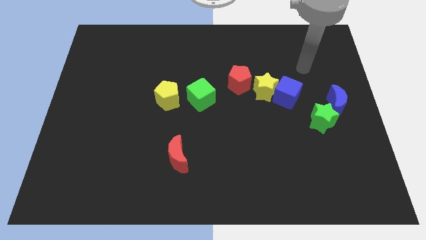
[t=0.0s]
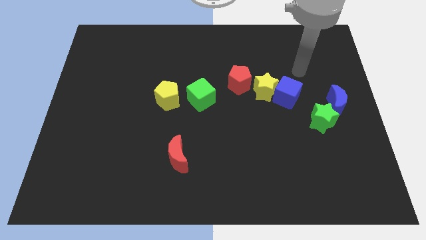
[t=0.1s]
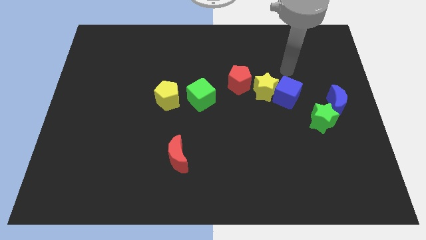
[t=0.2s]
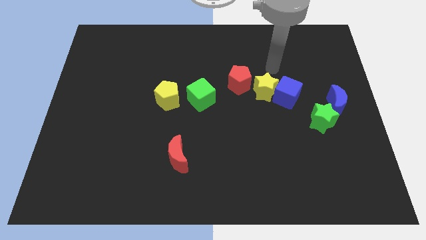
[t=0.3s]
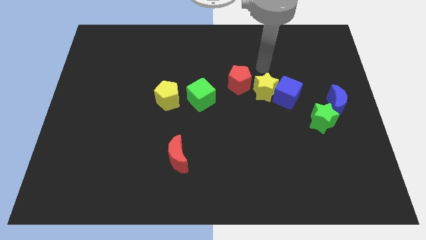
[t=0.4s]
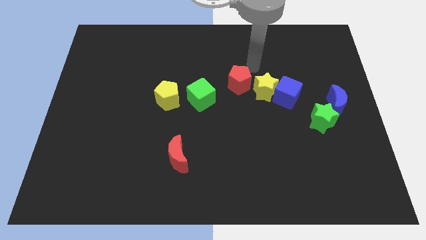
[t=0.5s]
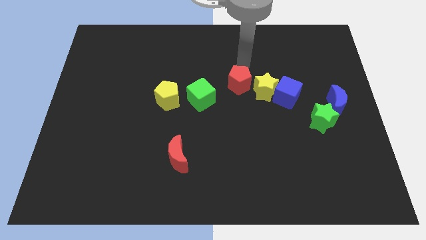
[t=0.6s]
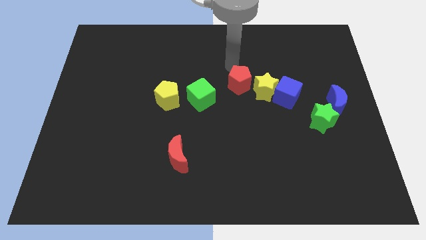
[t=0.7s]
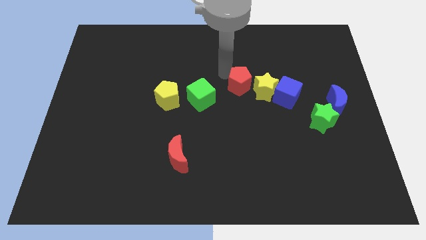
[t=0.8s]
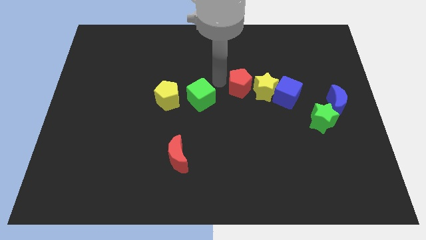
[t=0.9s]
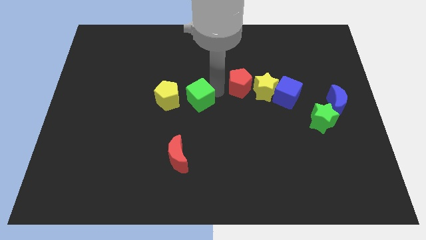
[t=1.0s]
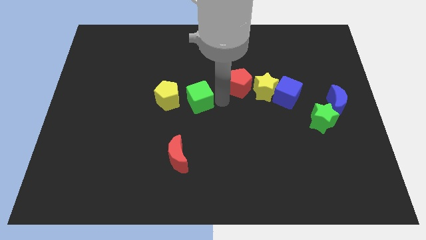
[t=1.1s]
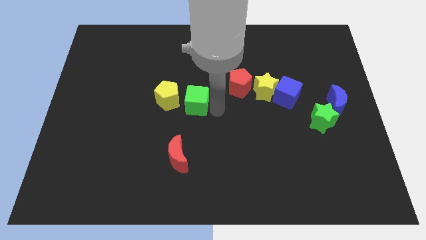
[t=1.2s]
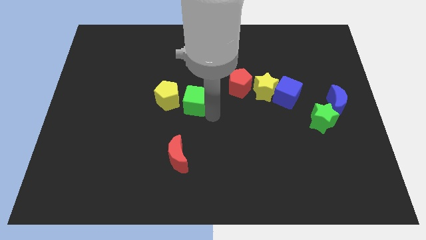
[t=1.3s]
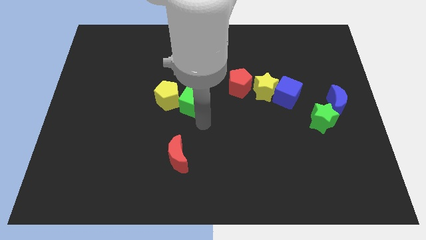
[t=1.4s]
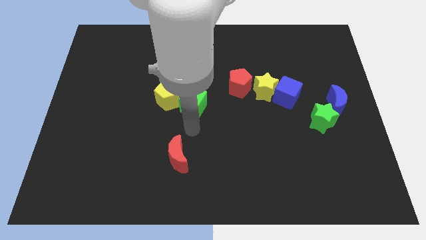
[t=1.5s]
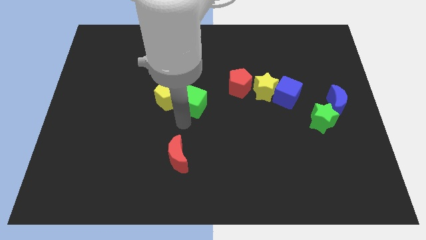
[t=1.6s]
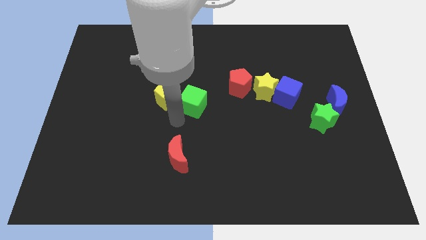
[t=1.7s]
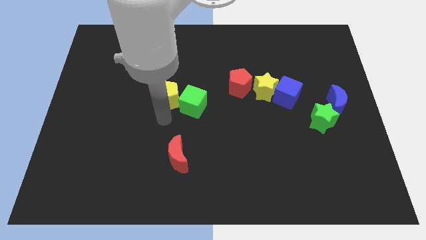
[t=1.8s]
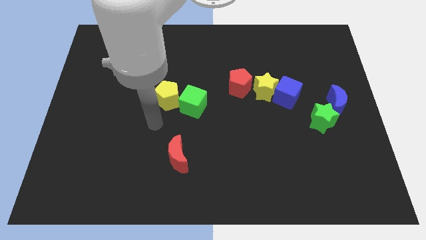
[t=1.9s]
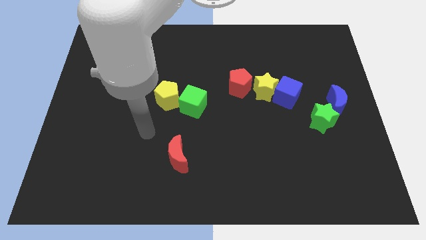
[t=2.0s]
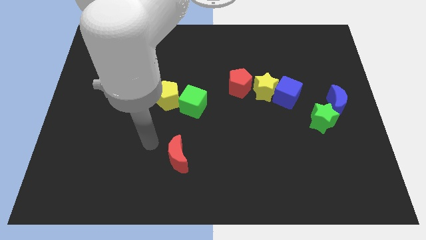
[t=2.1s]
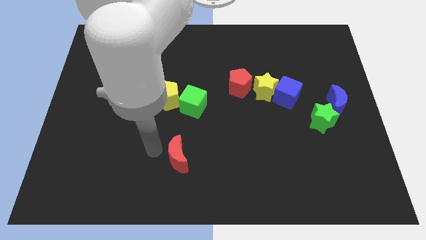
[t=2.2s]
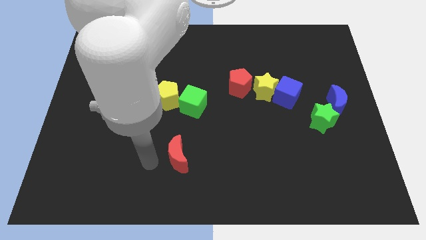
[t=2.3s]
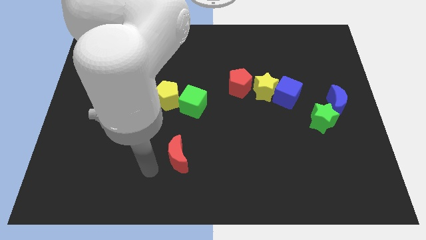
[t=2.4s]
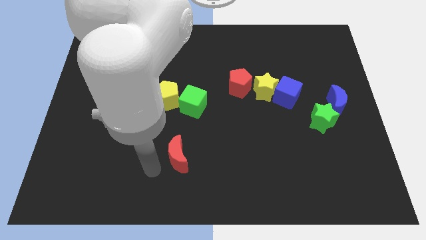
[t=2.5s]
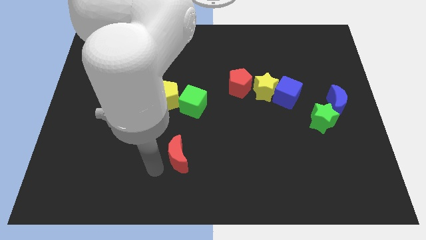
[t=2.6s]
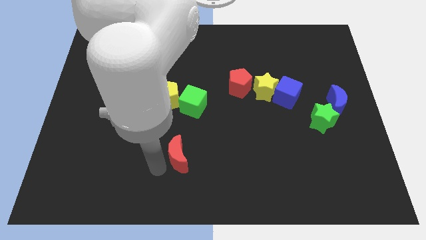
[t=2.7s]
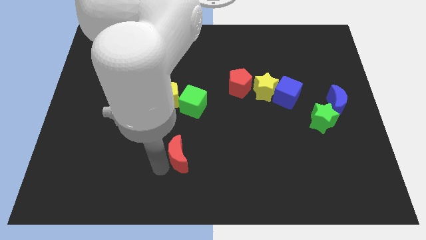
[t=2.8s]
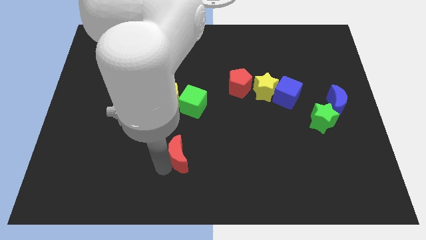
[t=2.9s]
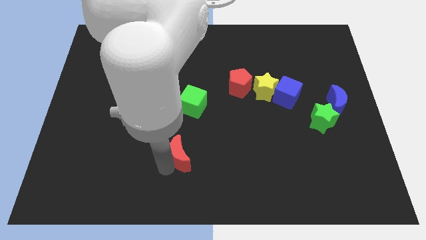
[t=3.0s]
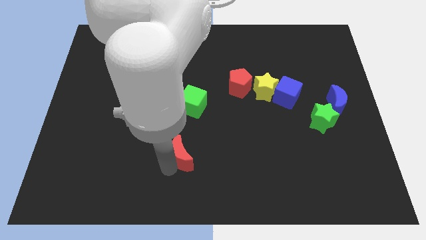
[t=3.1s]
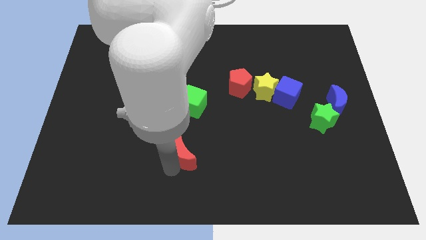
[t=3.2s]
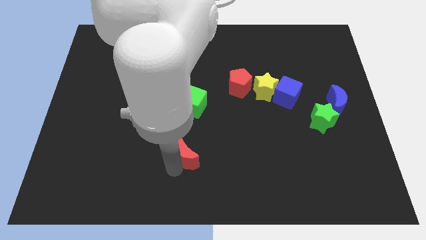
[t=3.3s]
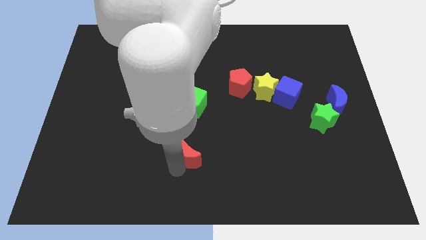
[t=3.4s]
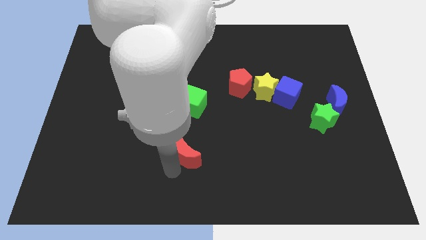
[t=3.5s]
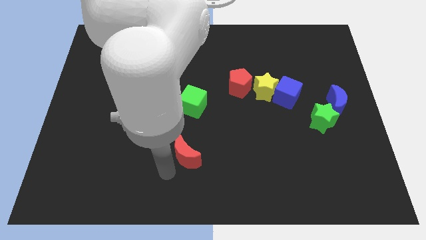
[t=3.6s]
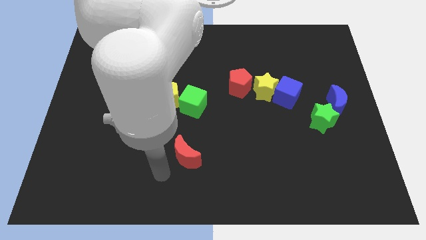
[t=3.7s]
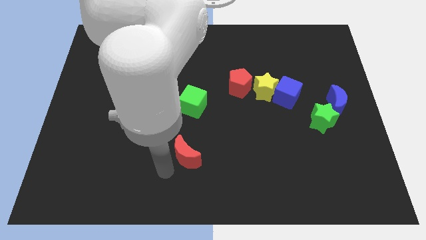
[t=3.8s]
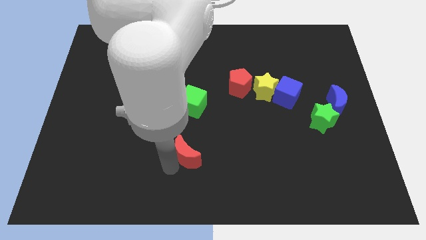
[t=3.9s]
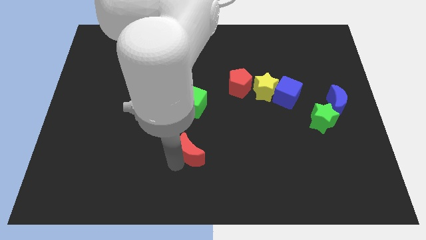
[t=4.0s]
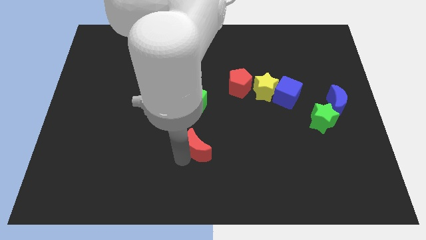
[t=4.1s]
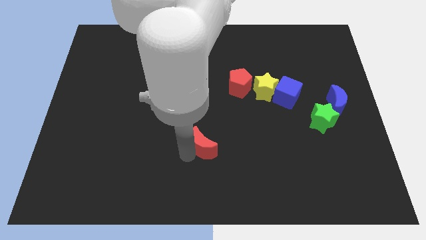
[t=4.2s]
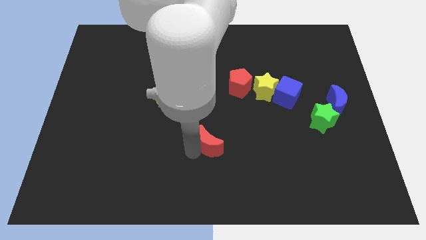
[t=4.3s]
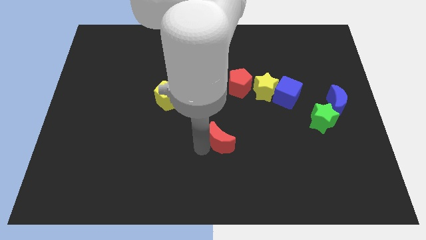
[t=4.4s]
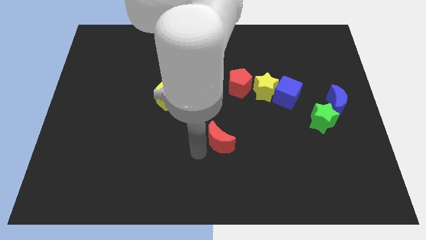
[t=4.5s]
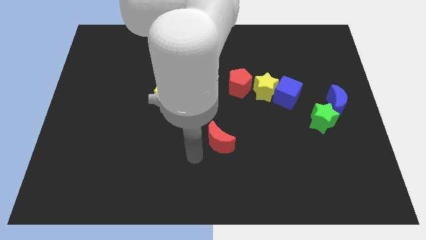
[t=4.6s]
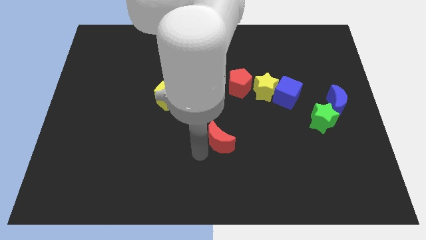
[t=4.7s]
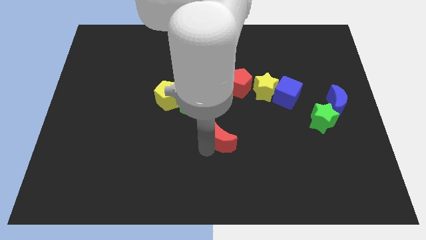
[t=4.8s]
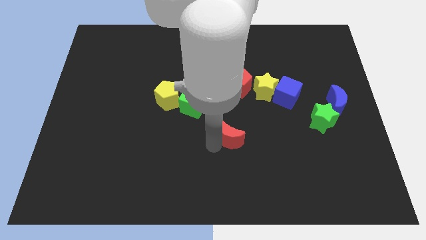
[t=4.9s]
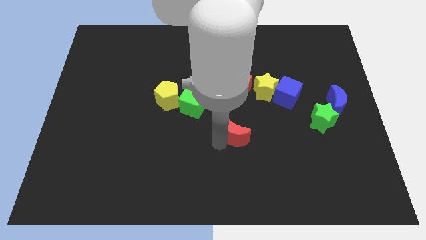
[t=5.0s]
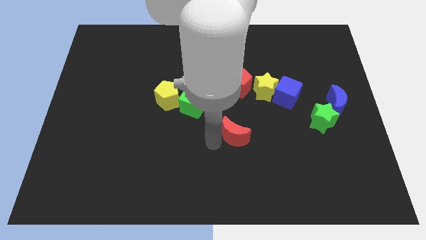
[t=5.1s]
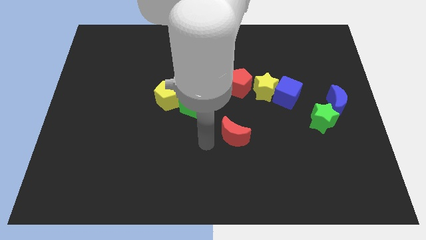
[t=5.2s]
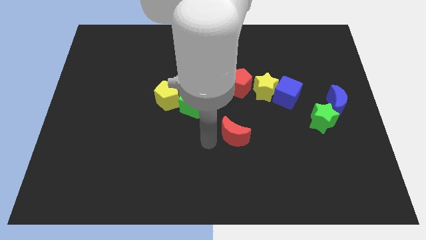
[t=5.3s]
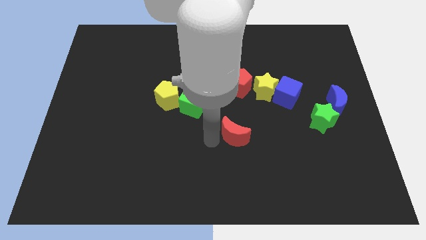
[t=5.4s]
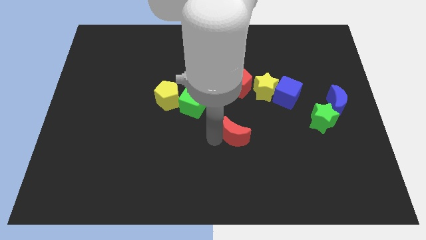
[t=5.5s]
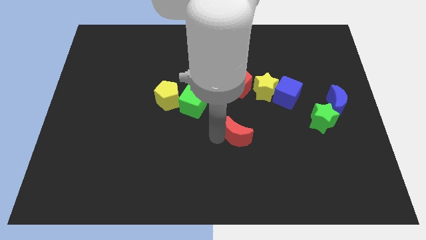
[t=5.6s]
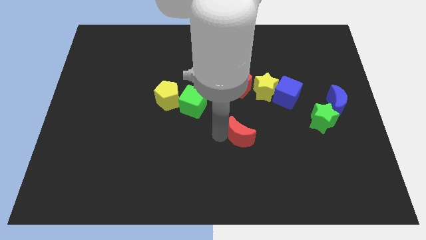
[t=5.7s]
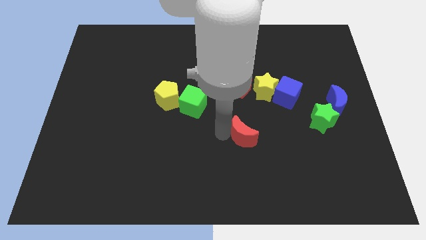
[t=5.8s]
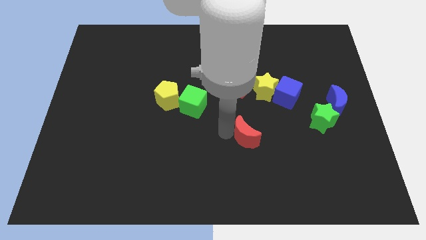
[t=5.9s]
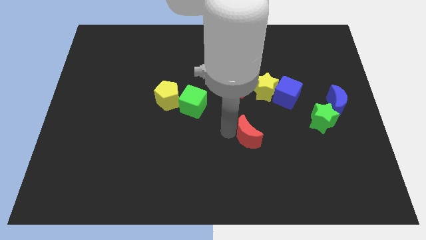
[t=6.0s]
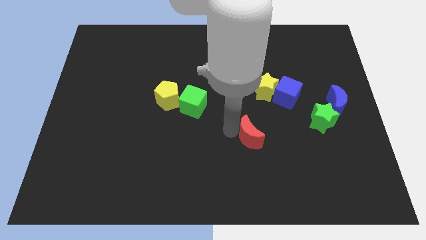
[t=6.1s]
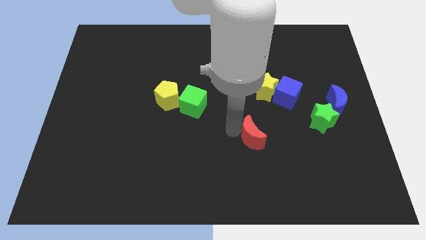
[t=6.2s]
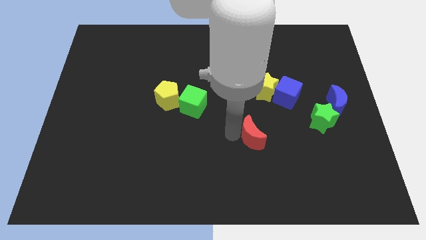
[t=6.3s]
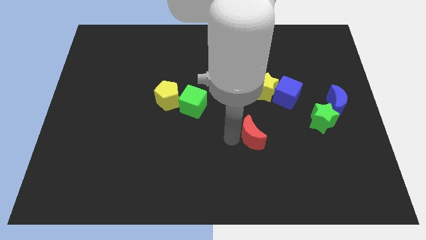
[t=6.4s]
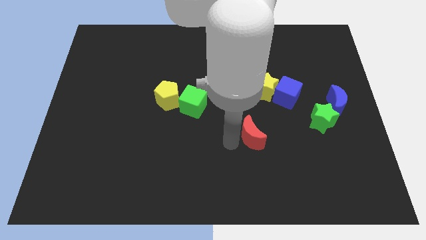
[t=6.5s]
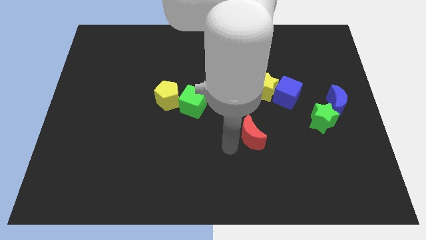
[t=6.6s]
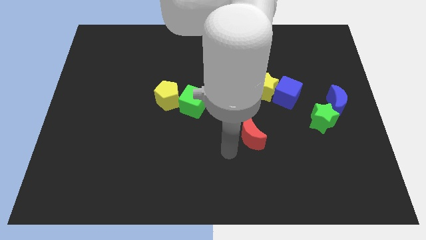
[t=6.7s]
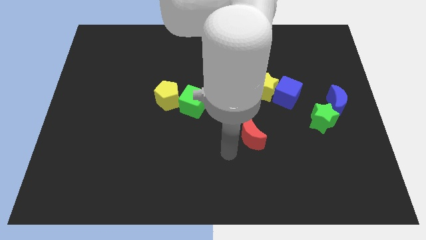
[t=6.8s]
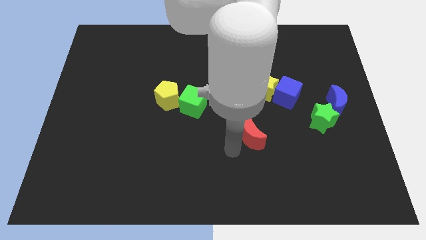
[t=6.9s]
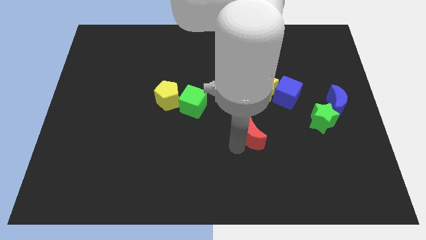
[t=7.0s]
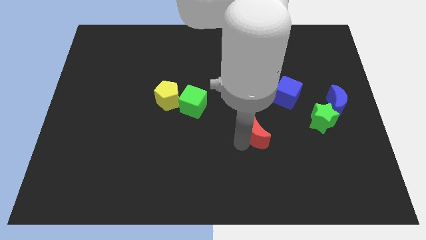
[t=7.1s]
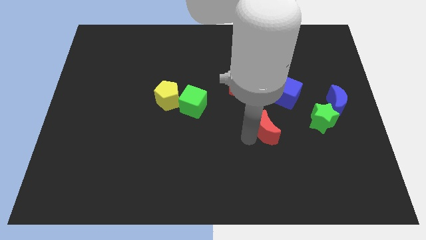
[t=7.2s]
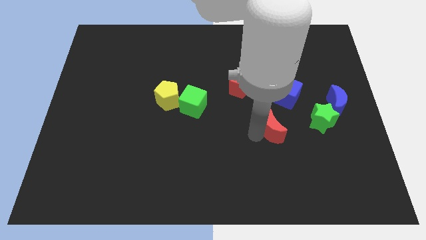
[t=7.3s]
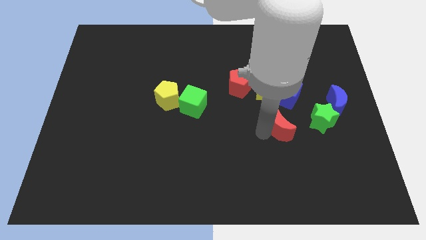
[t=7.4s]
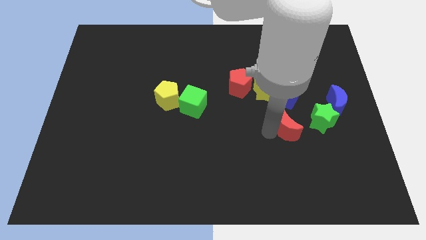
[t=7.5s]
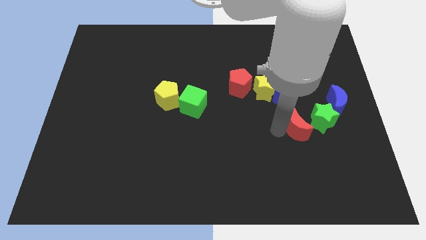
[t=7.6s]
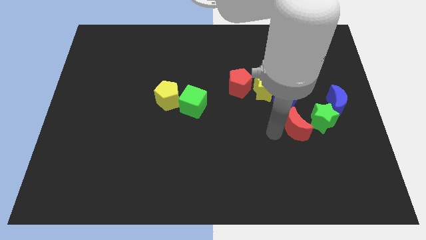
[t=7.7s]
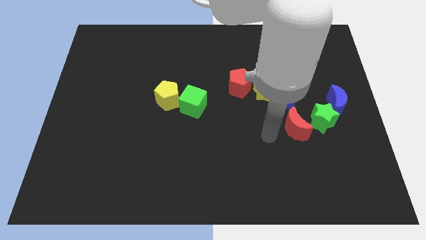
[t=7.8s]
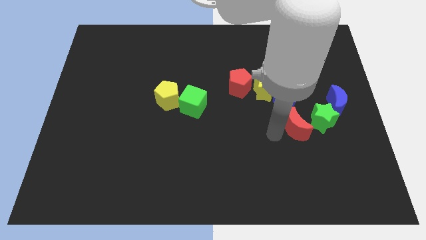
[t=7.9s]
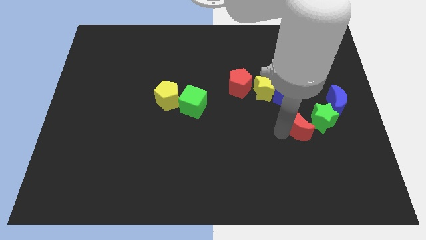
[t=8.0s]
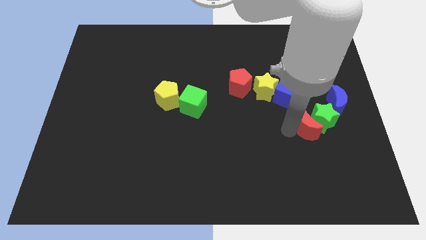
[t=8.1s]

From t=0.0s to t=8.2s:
slide the red moon close to the green star
